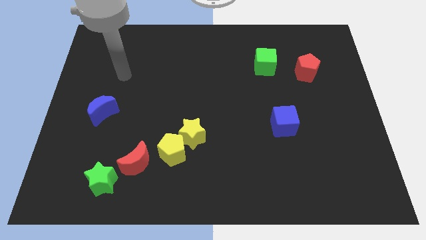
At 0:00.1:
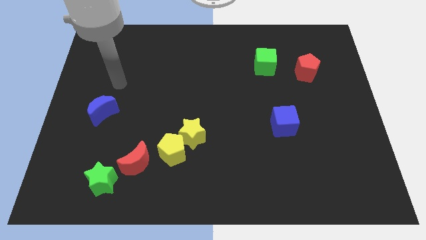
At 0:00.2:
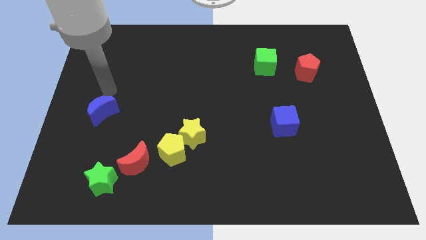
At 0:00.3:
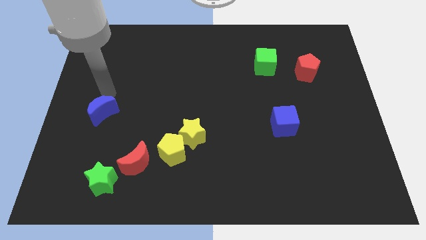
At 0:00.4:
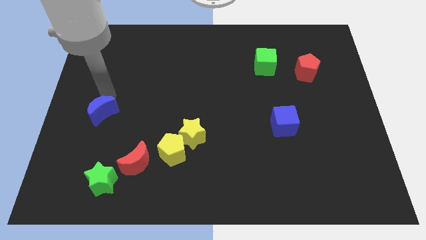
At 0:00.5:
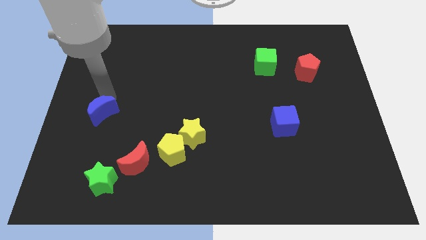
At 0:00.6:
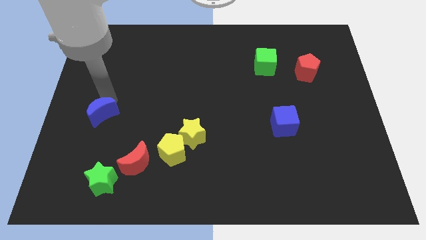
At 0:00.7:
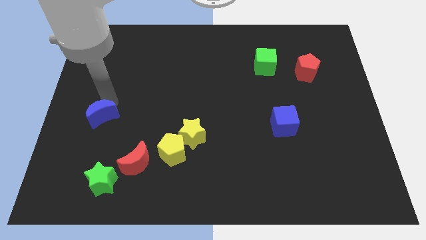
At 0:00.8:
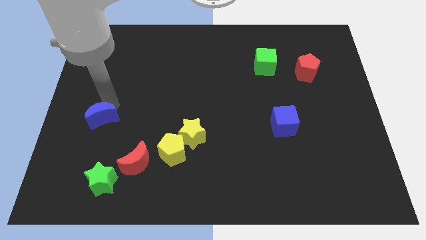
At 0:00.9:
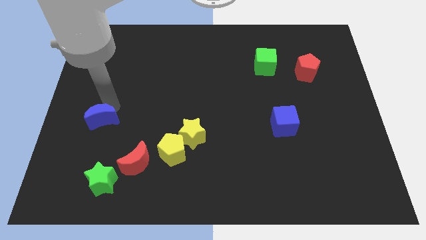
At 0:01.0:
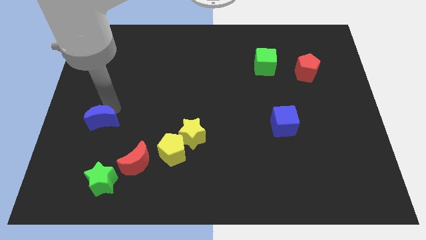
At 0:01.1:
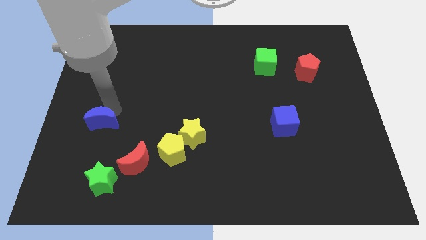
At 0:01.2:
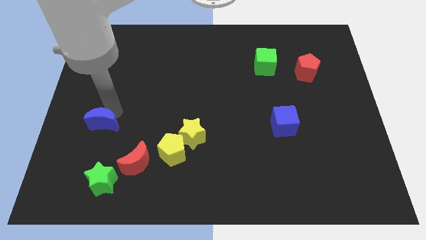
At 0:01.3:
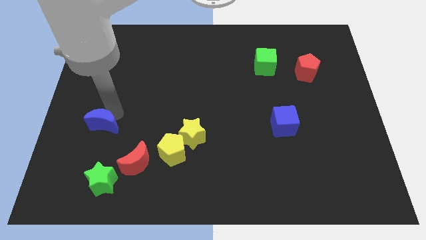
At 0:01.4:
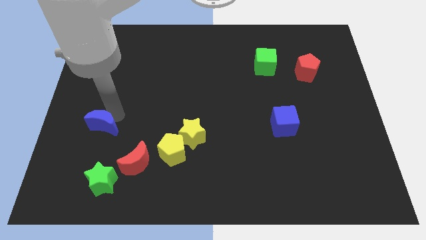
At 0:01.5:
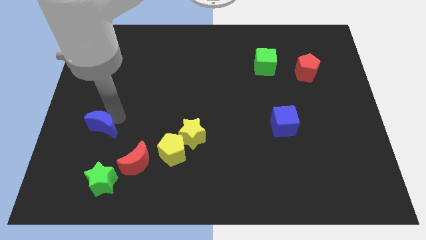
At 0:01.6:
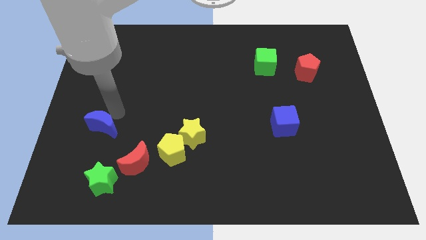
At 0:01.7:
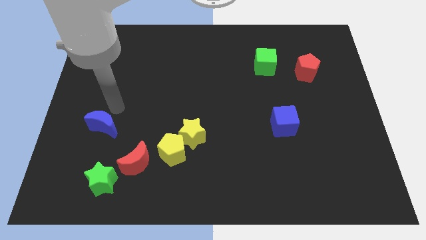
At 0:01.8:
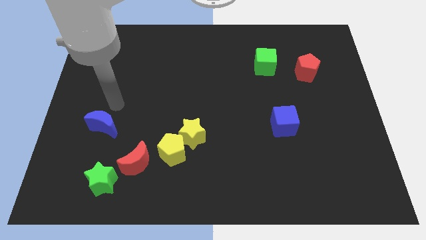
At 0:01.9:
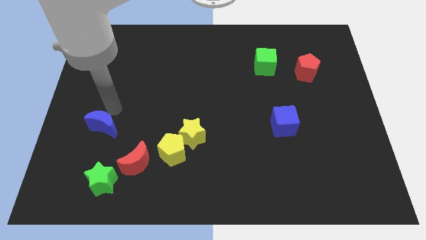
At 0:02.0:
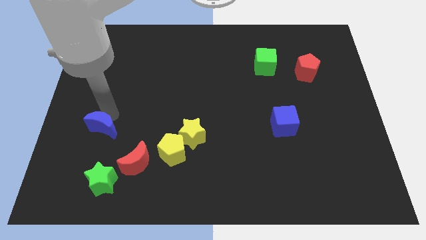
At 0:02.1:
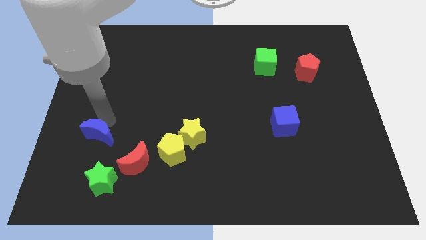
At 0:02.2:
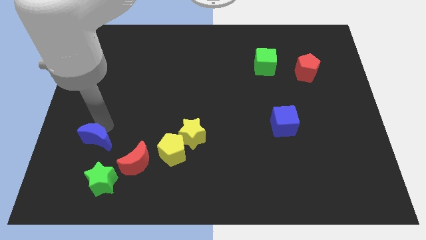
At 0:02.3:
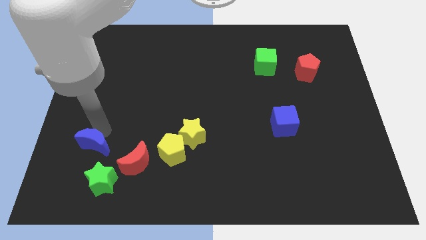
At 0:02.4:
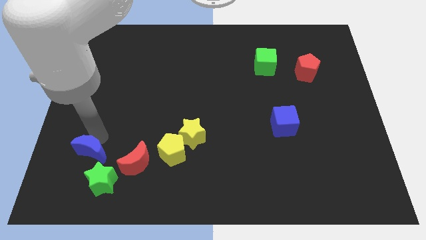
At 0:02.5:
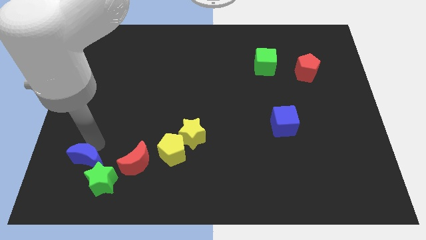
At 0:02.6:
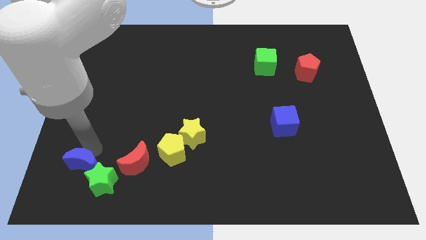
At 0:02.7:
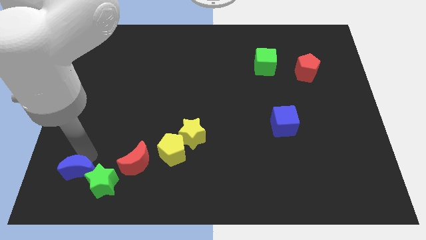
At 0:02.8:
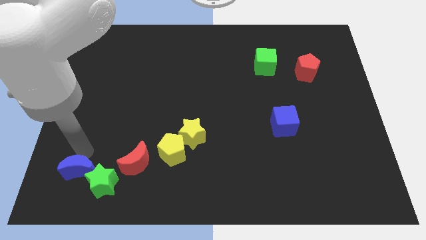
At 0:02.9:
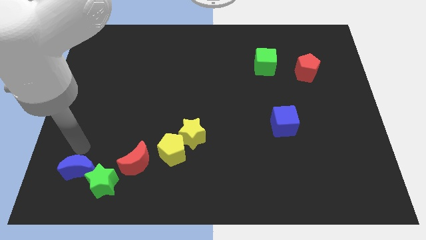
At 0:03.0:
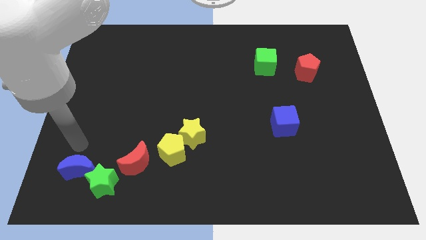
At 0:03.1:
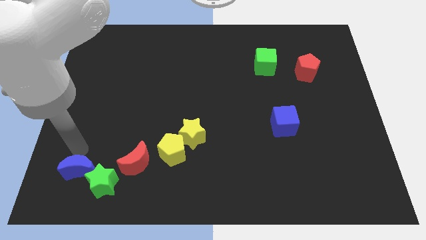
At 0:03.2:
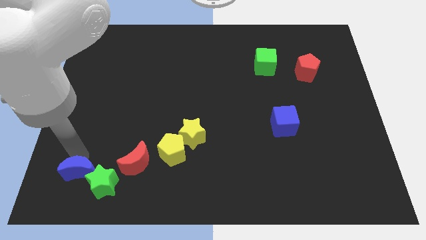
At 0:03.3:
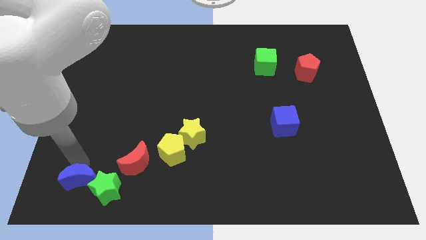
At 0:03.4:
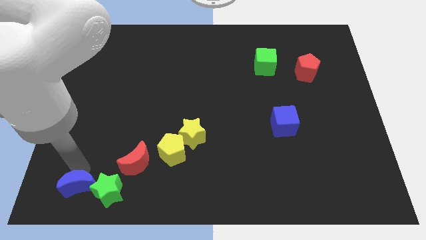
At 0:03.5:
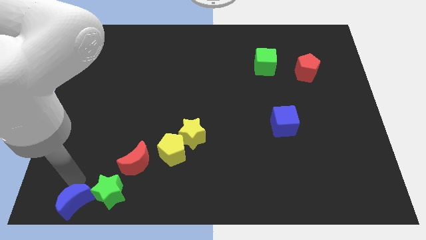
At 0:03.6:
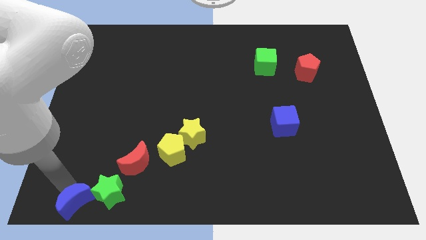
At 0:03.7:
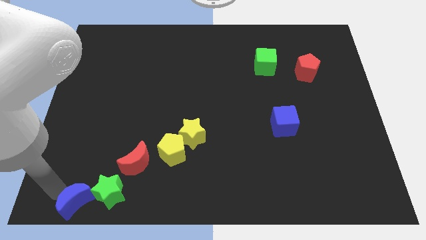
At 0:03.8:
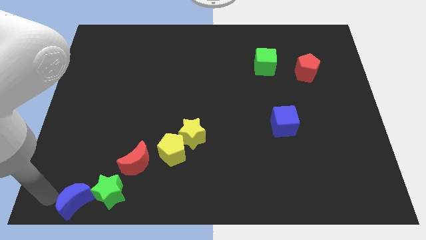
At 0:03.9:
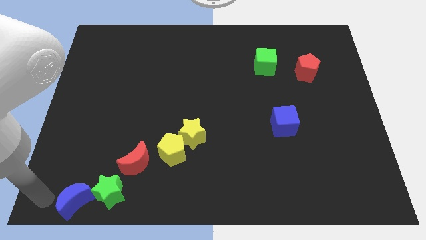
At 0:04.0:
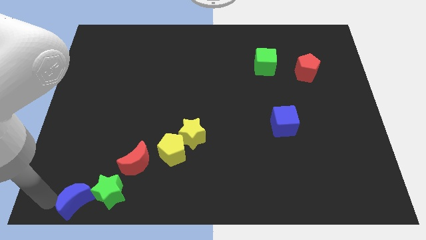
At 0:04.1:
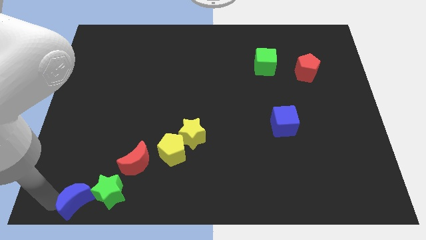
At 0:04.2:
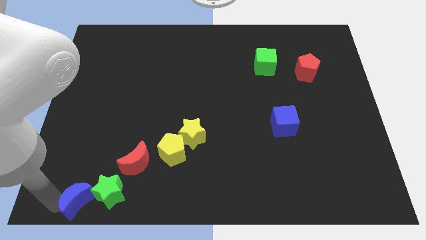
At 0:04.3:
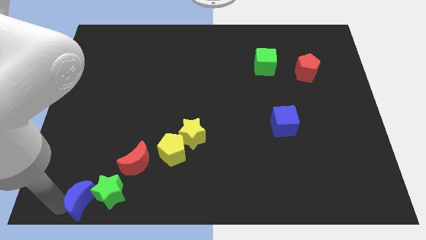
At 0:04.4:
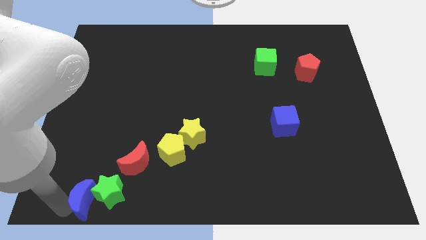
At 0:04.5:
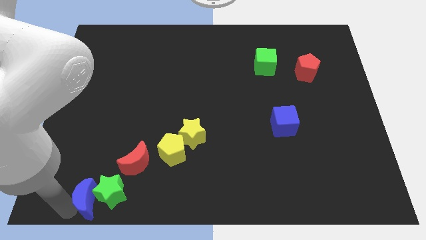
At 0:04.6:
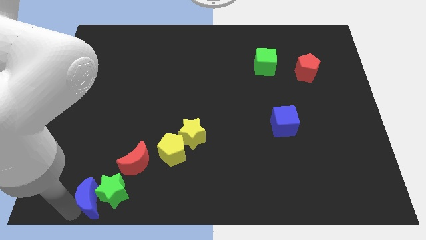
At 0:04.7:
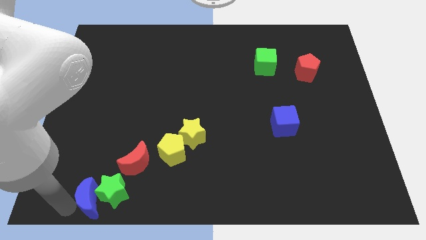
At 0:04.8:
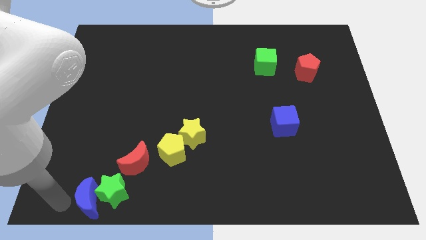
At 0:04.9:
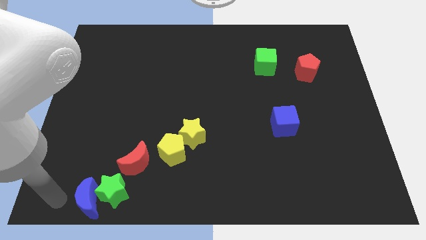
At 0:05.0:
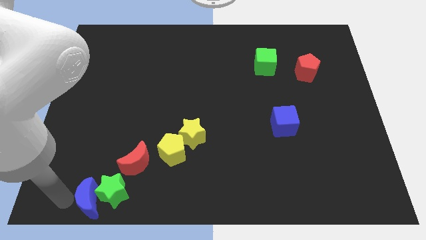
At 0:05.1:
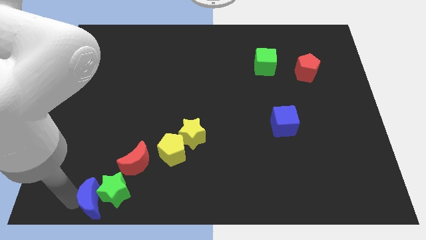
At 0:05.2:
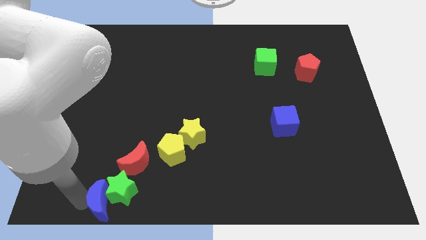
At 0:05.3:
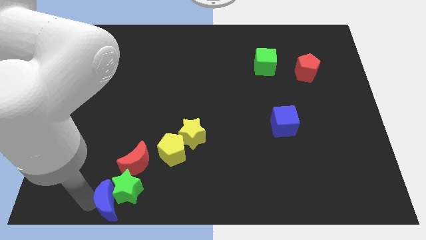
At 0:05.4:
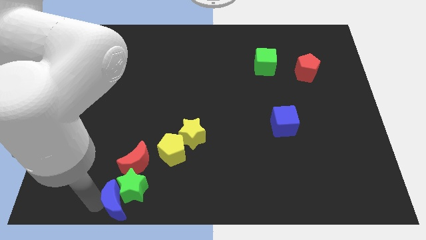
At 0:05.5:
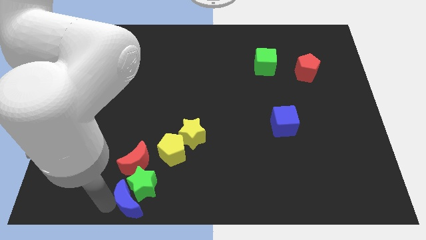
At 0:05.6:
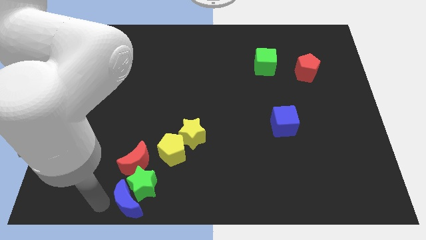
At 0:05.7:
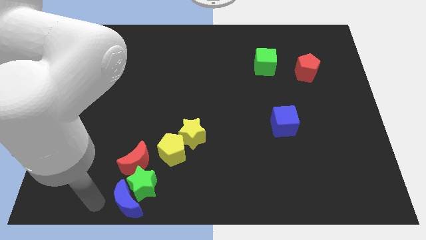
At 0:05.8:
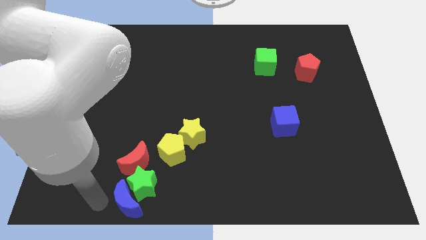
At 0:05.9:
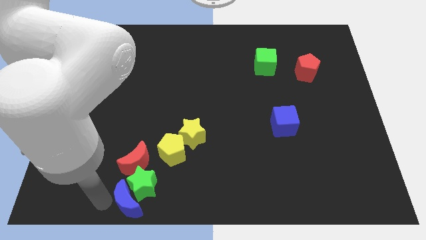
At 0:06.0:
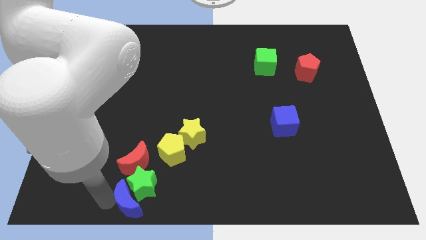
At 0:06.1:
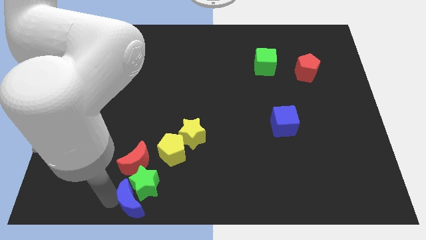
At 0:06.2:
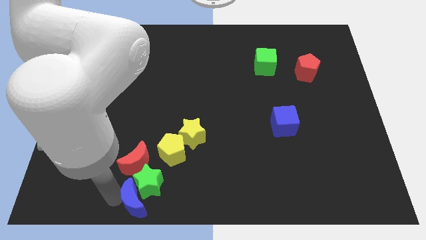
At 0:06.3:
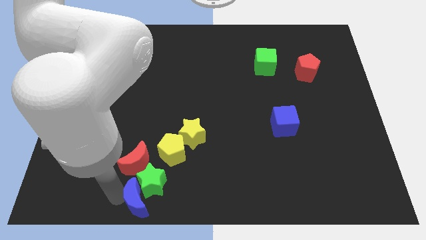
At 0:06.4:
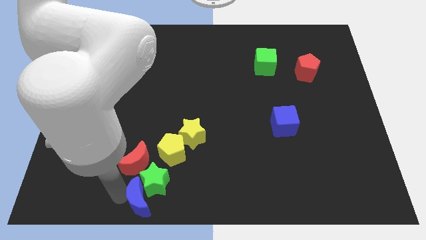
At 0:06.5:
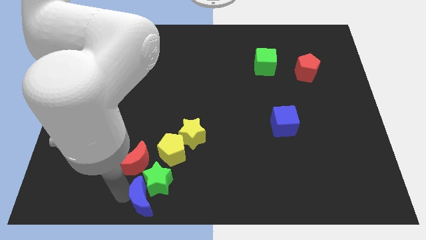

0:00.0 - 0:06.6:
push the blue moon to the bottom

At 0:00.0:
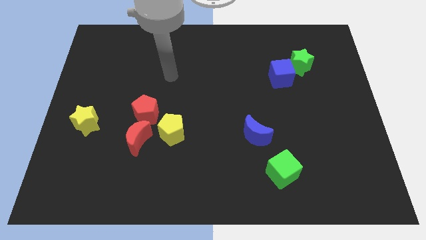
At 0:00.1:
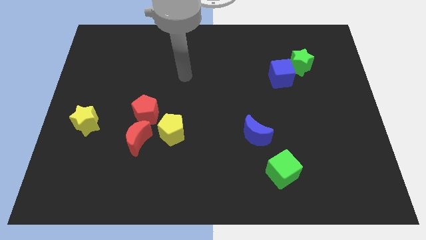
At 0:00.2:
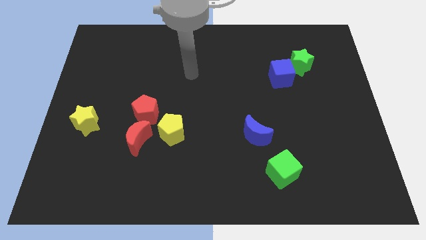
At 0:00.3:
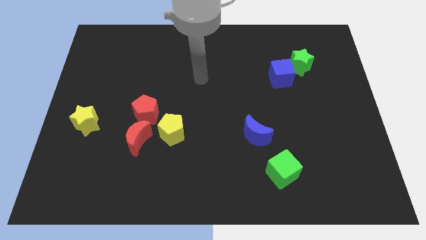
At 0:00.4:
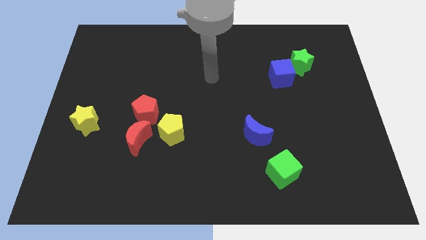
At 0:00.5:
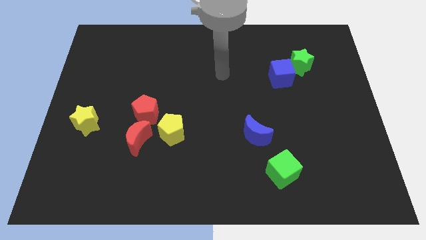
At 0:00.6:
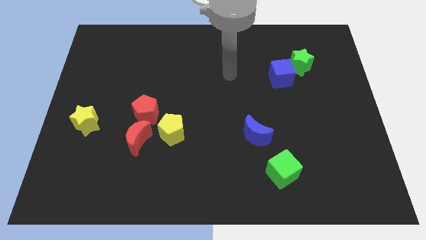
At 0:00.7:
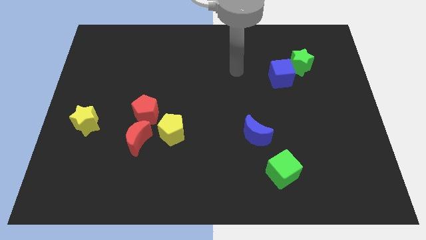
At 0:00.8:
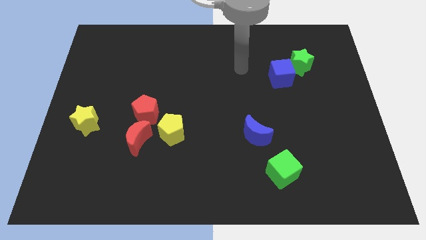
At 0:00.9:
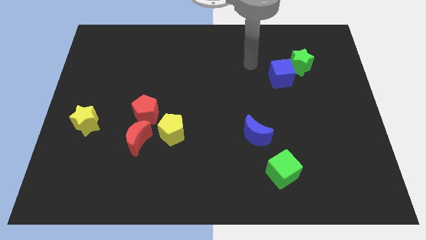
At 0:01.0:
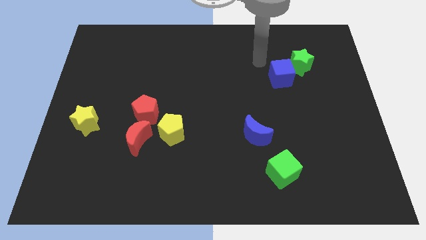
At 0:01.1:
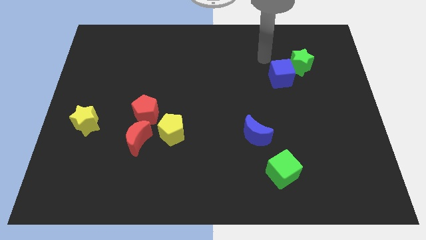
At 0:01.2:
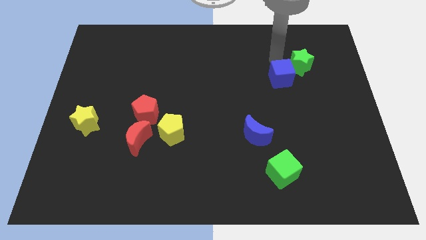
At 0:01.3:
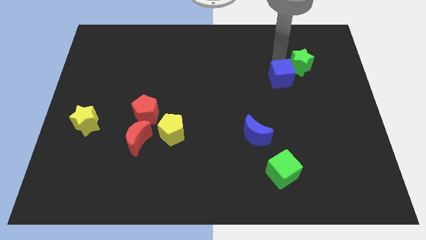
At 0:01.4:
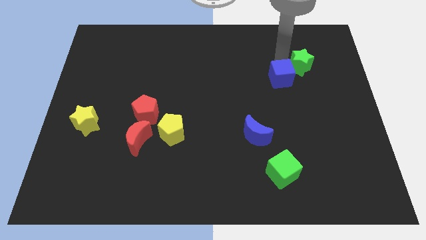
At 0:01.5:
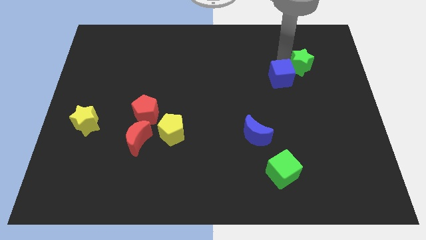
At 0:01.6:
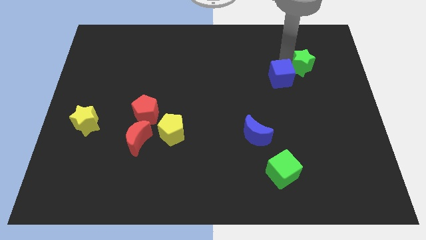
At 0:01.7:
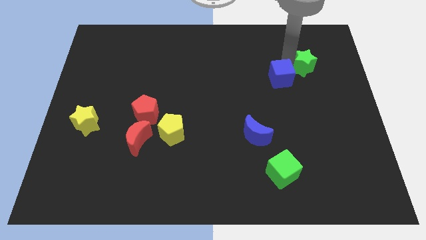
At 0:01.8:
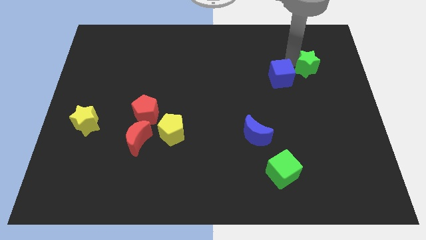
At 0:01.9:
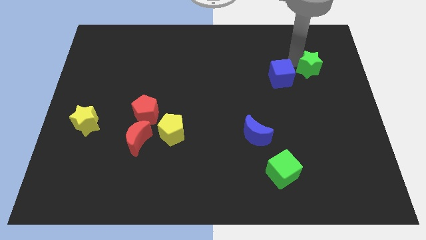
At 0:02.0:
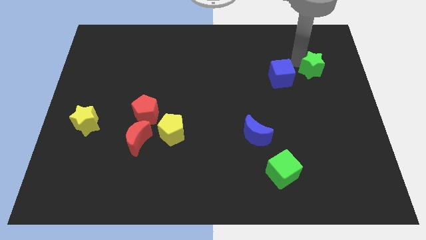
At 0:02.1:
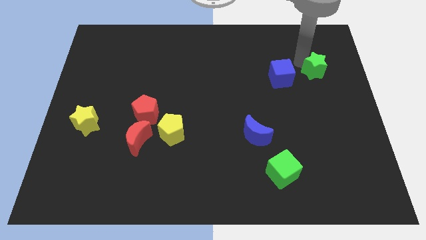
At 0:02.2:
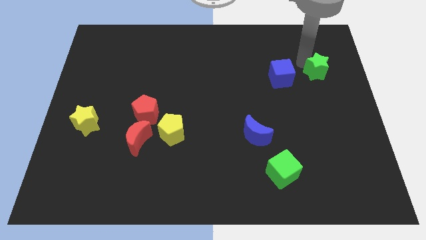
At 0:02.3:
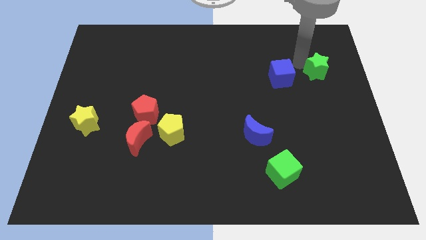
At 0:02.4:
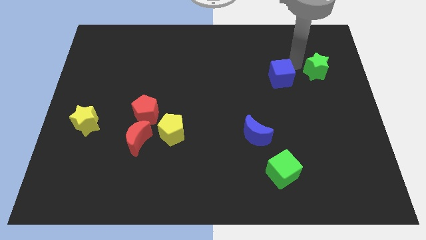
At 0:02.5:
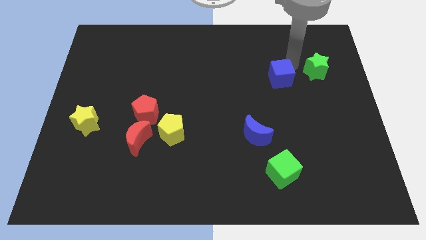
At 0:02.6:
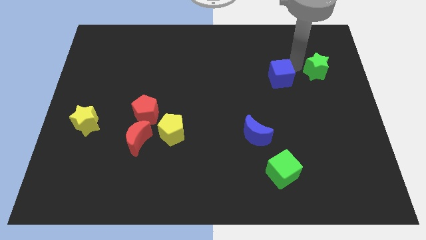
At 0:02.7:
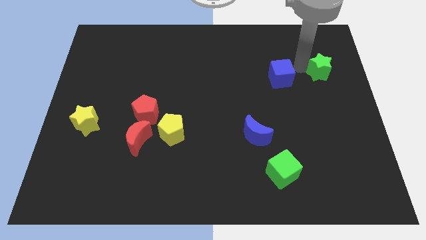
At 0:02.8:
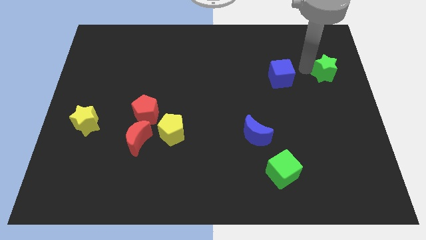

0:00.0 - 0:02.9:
move the green star to the right side of the board
